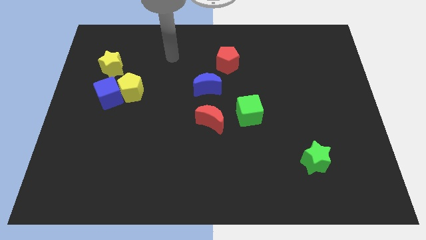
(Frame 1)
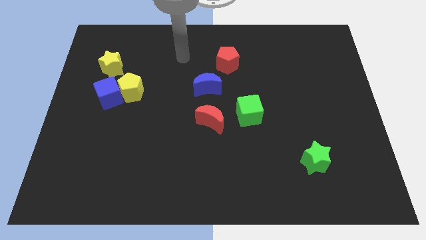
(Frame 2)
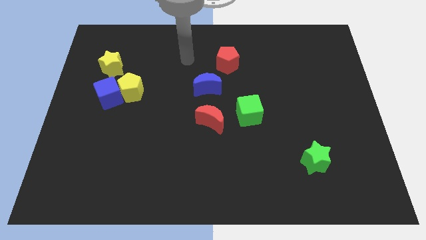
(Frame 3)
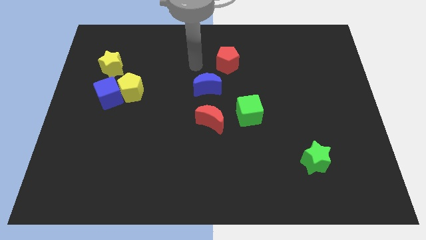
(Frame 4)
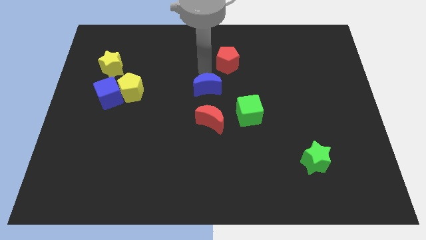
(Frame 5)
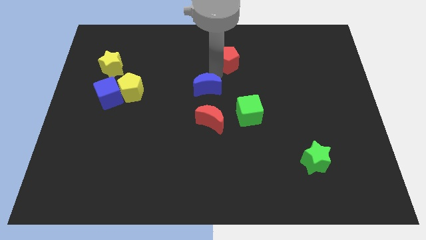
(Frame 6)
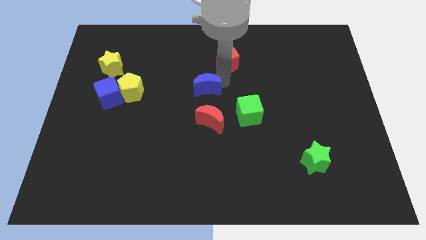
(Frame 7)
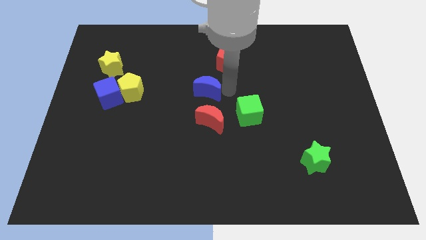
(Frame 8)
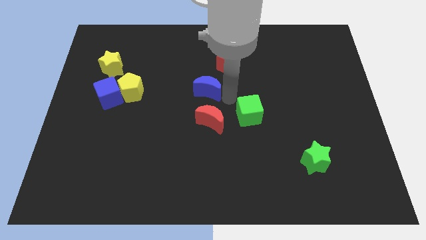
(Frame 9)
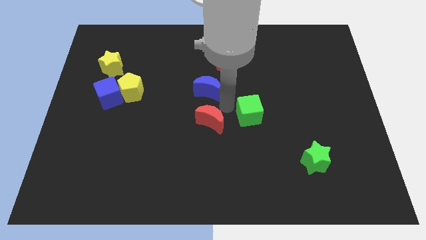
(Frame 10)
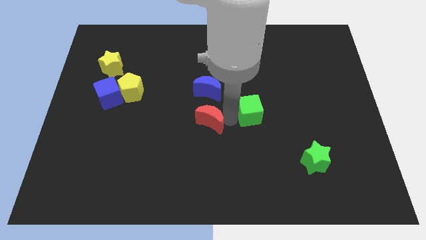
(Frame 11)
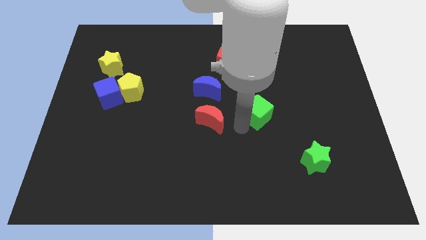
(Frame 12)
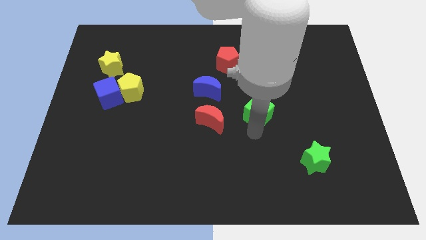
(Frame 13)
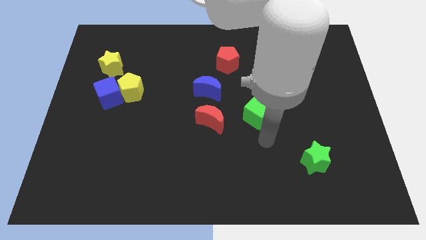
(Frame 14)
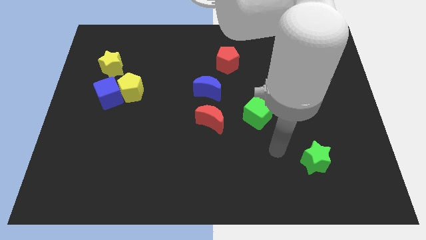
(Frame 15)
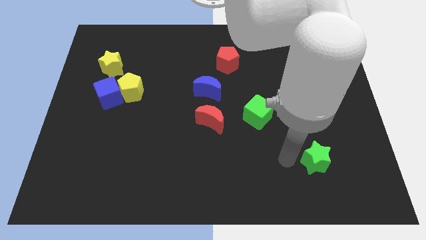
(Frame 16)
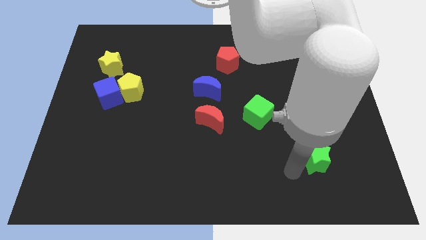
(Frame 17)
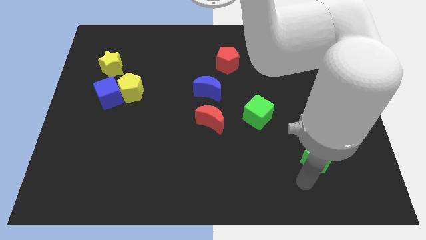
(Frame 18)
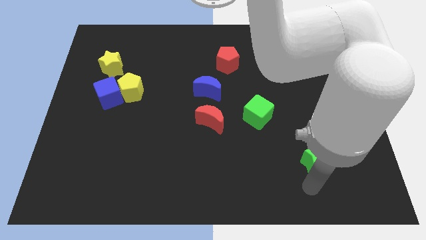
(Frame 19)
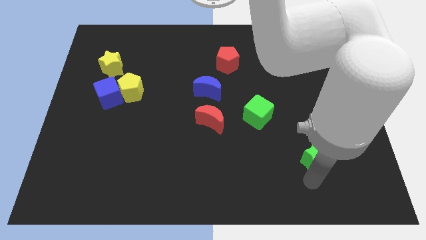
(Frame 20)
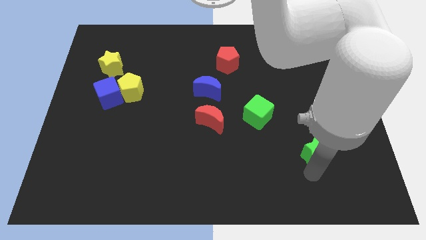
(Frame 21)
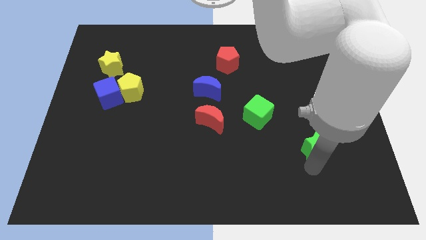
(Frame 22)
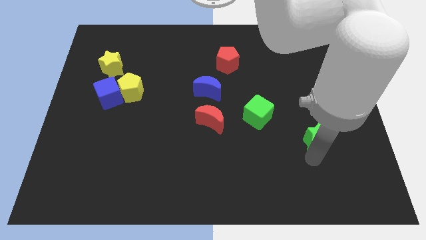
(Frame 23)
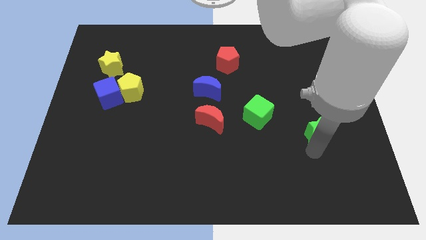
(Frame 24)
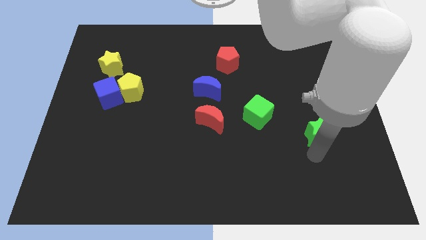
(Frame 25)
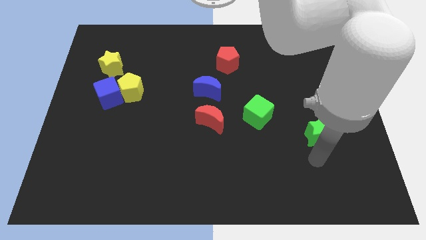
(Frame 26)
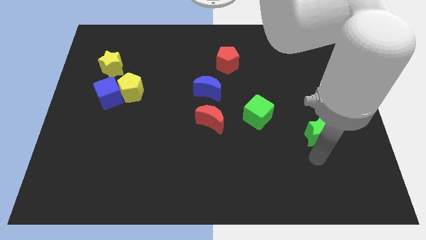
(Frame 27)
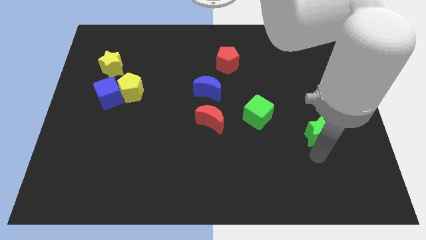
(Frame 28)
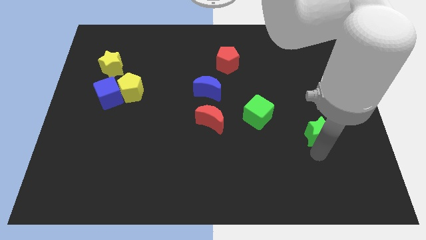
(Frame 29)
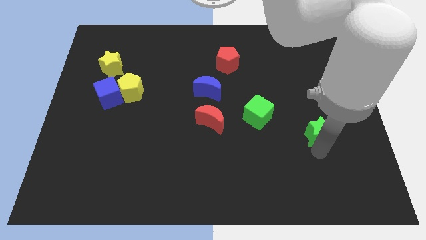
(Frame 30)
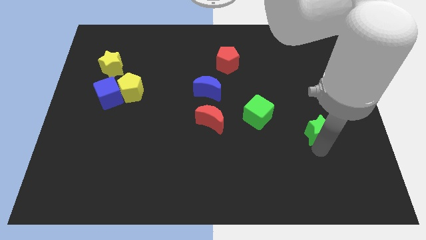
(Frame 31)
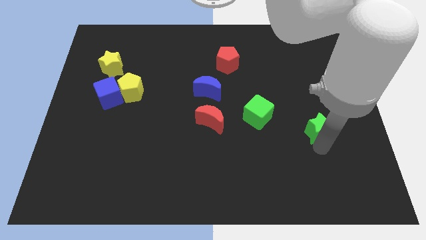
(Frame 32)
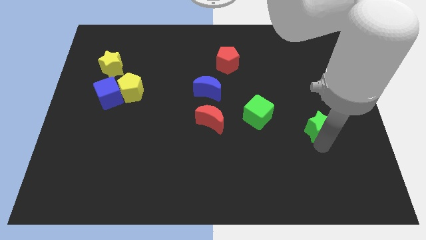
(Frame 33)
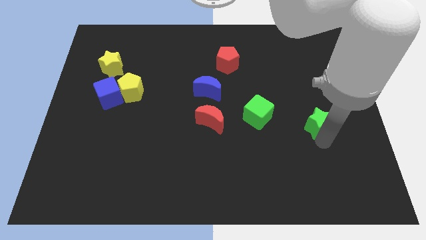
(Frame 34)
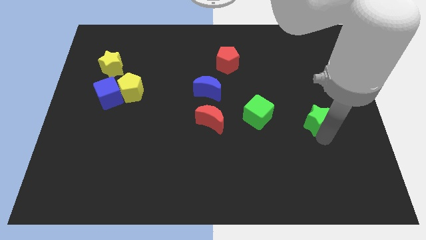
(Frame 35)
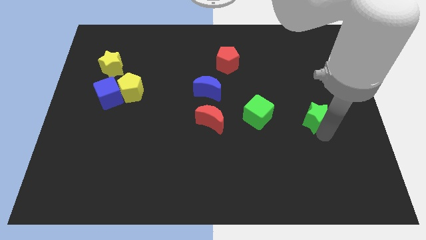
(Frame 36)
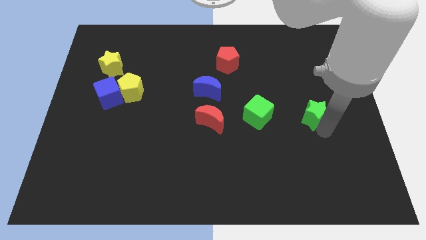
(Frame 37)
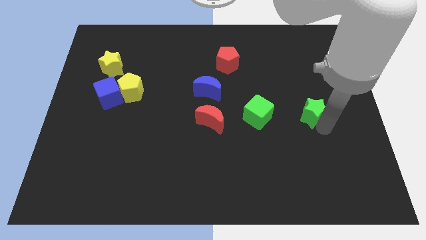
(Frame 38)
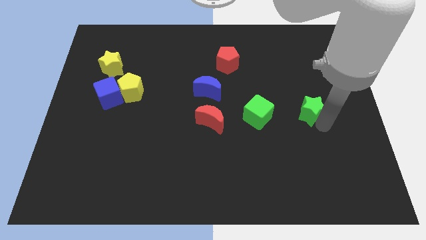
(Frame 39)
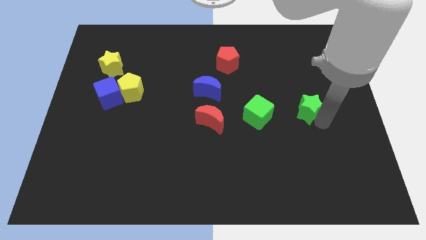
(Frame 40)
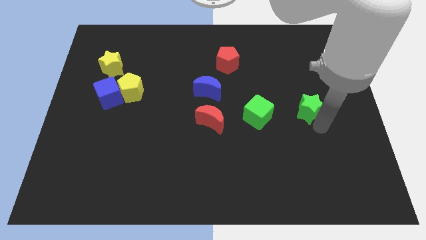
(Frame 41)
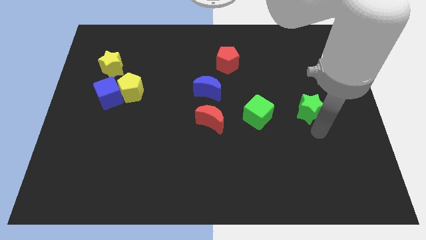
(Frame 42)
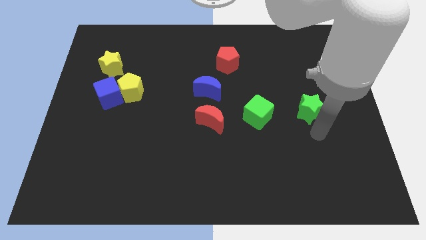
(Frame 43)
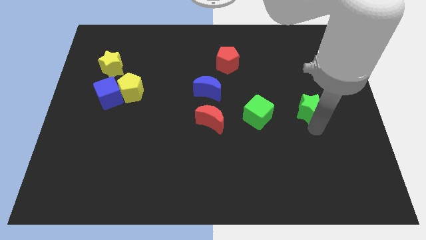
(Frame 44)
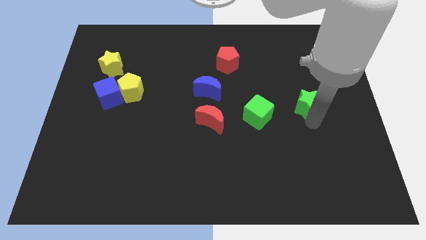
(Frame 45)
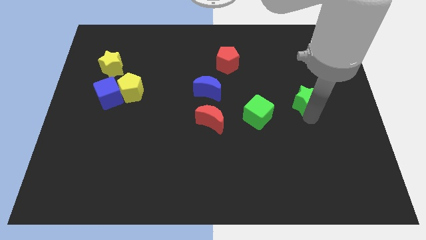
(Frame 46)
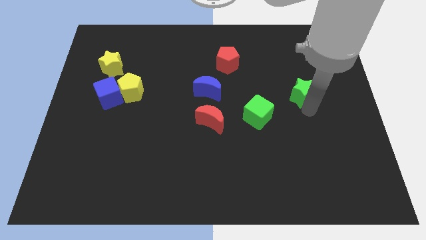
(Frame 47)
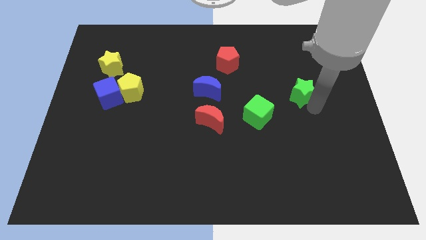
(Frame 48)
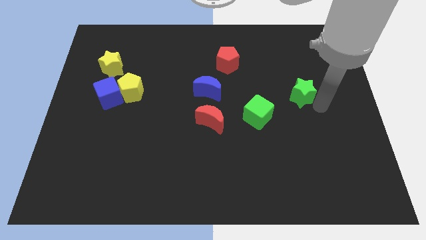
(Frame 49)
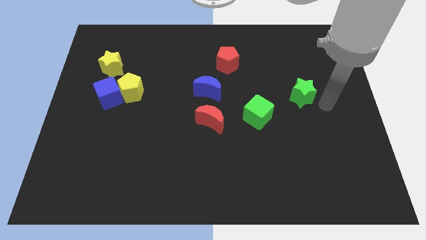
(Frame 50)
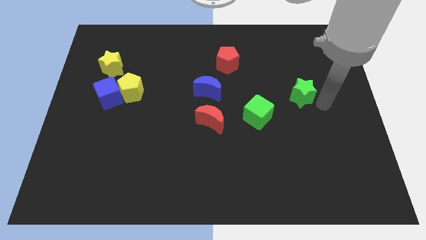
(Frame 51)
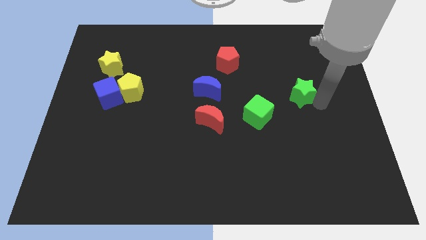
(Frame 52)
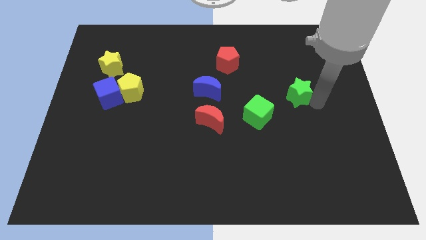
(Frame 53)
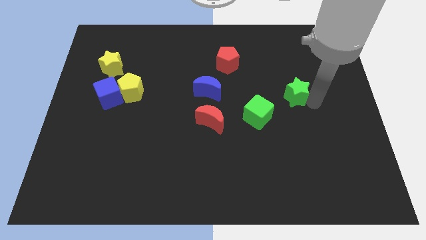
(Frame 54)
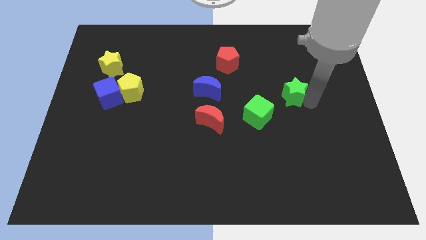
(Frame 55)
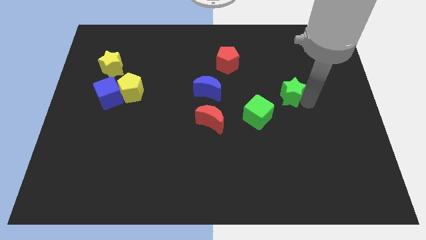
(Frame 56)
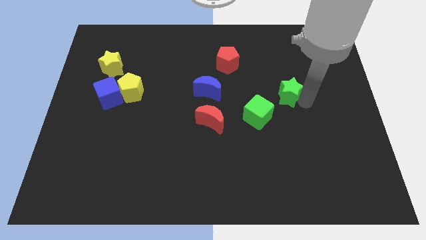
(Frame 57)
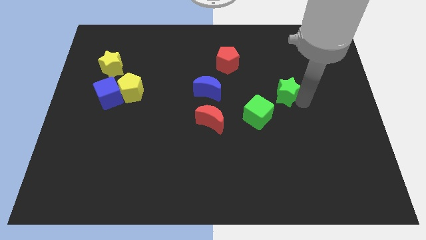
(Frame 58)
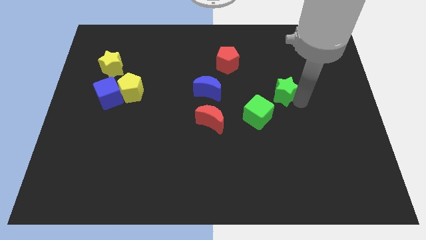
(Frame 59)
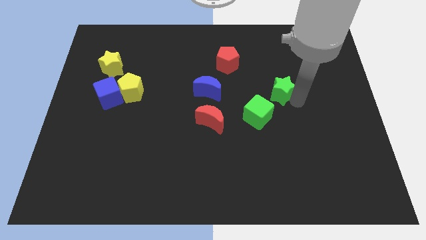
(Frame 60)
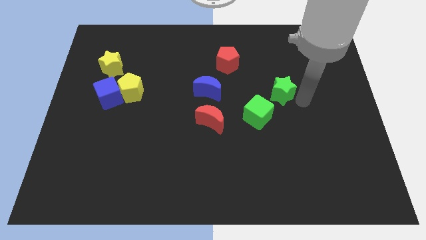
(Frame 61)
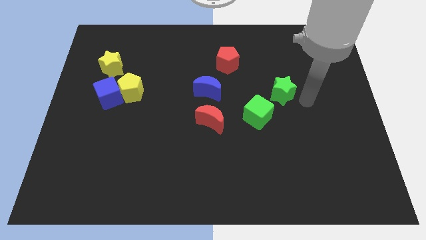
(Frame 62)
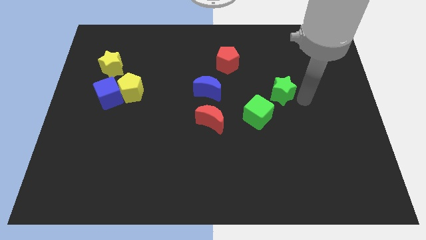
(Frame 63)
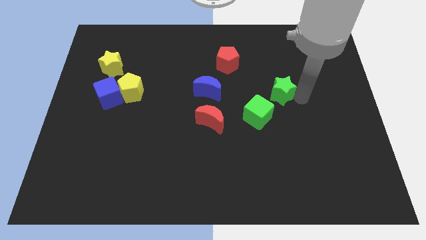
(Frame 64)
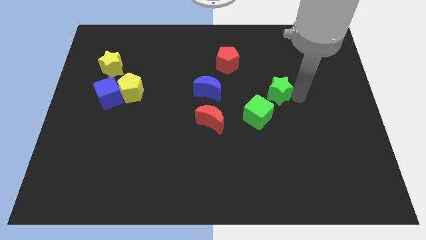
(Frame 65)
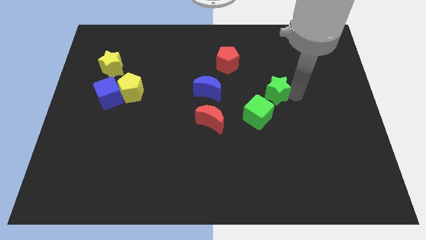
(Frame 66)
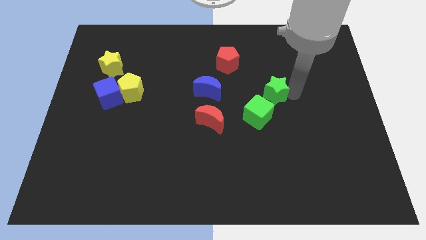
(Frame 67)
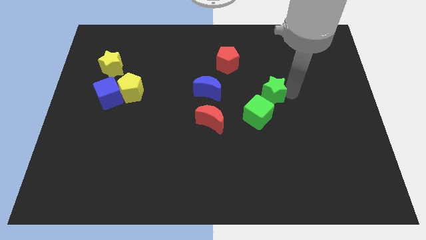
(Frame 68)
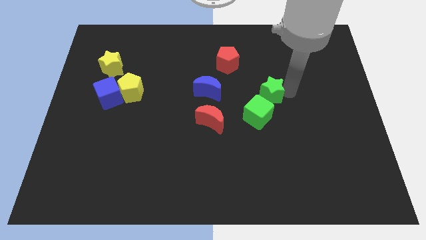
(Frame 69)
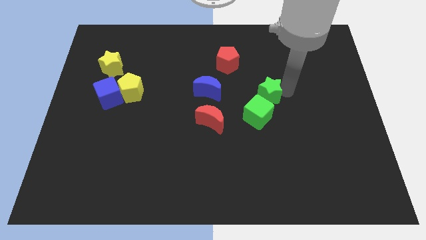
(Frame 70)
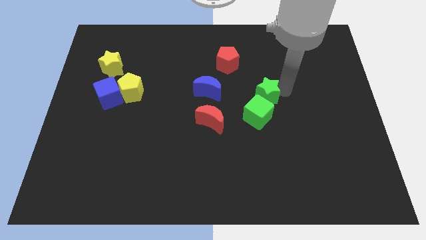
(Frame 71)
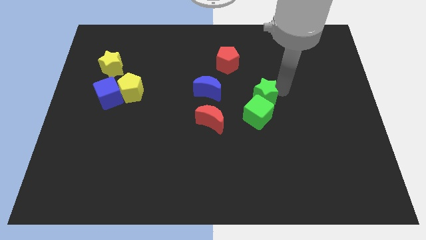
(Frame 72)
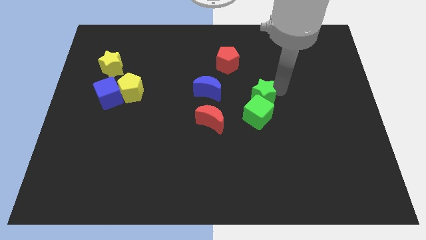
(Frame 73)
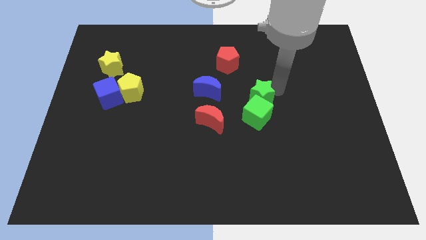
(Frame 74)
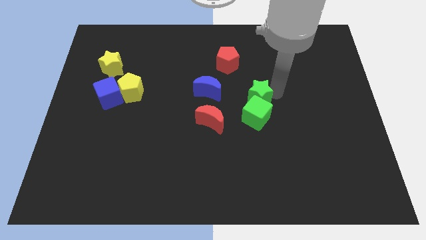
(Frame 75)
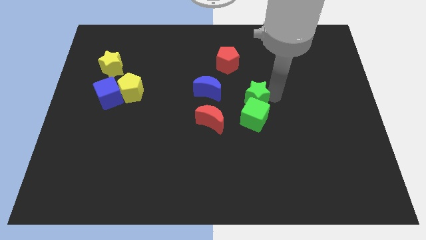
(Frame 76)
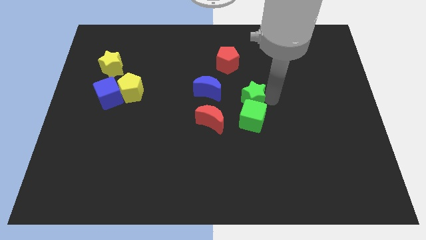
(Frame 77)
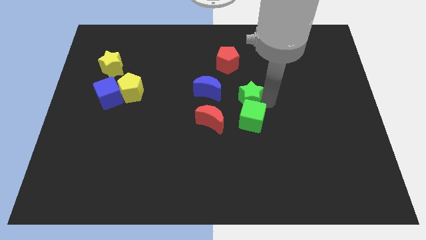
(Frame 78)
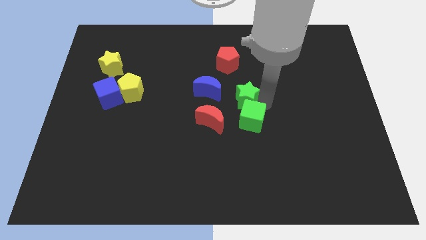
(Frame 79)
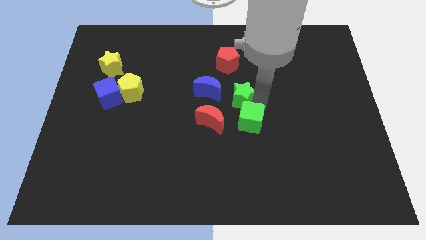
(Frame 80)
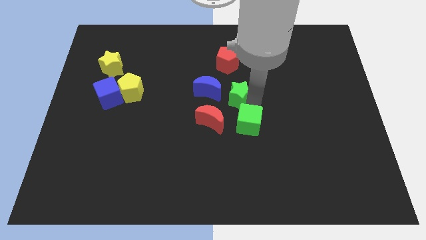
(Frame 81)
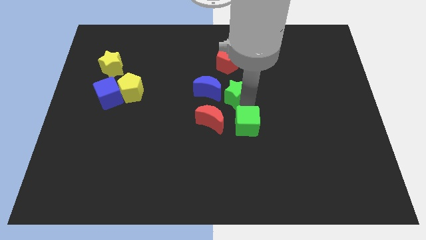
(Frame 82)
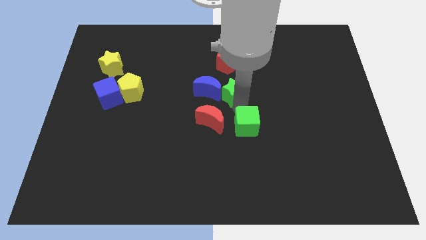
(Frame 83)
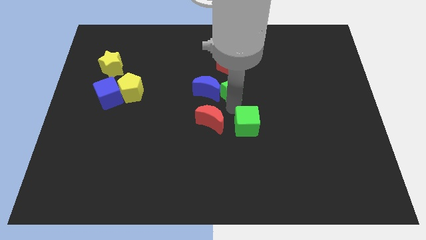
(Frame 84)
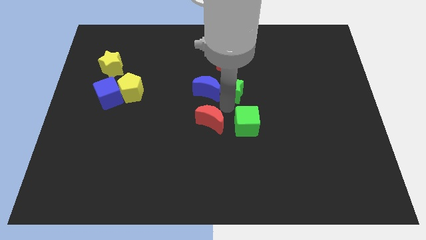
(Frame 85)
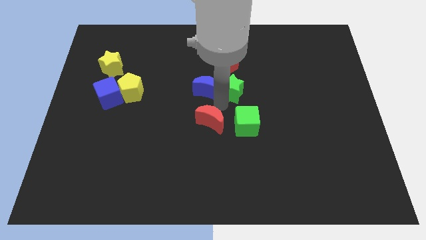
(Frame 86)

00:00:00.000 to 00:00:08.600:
slide the green star to the top side of the red moon
